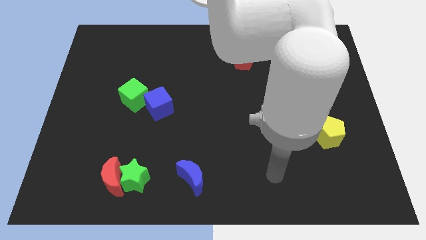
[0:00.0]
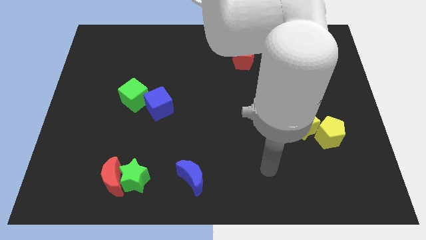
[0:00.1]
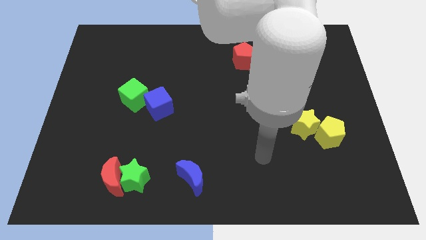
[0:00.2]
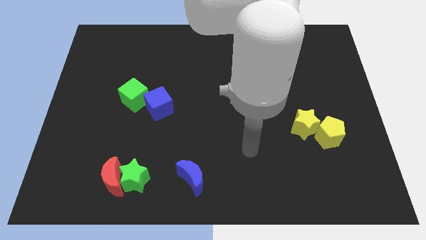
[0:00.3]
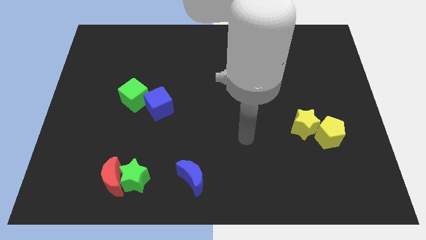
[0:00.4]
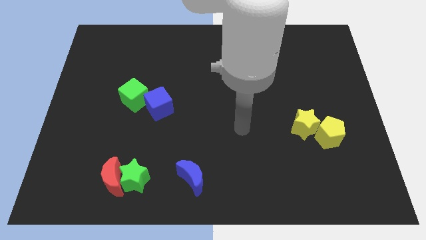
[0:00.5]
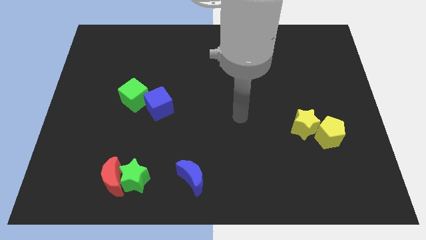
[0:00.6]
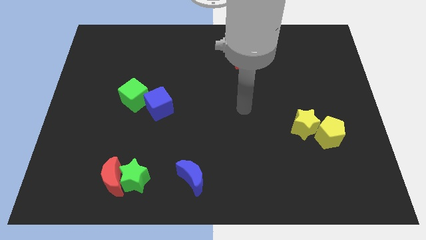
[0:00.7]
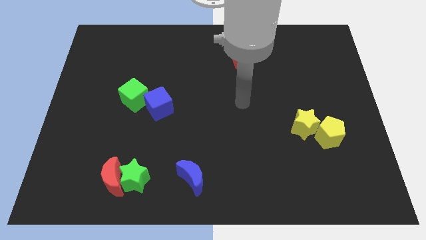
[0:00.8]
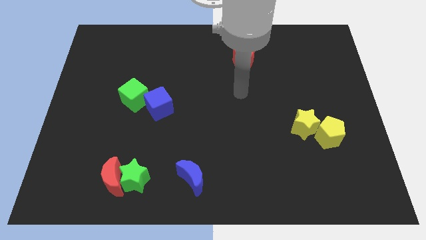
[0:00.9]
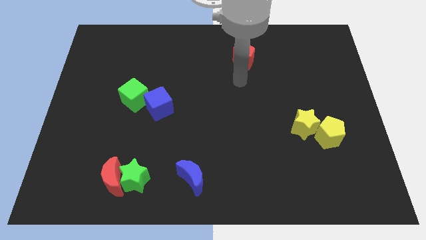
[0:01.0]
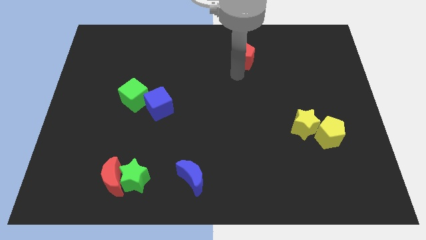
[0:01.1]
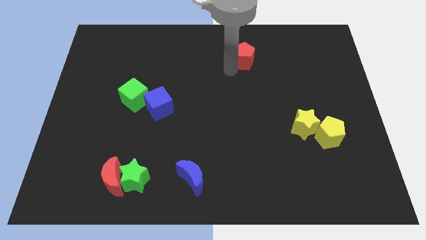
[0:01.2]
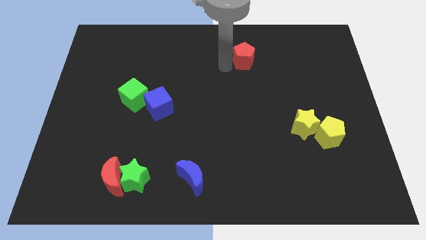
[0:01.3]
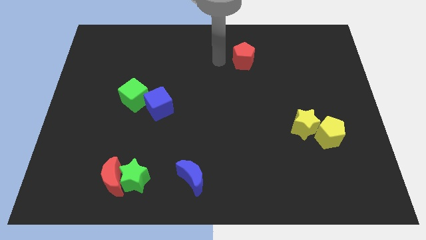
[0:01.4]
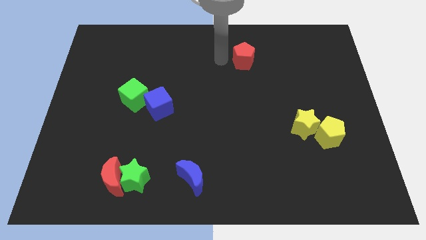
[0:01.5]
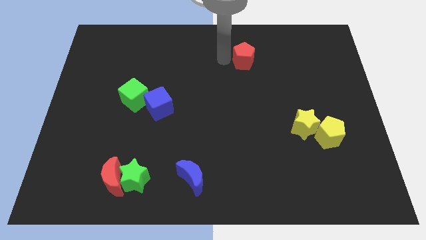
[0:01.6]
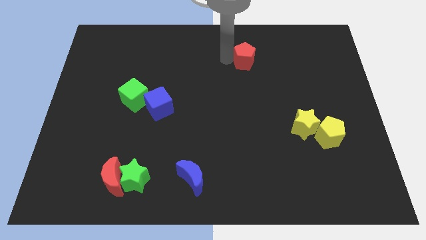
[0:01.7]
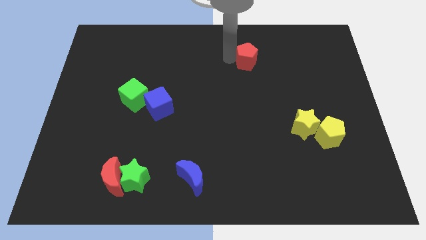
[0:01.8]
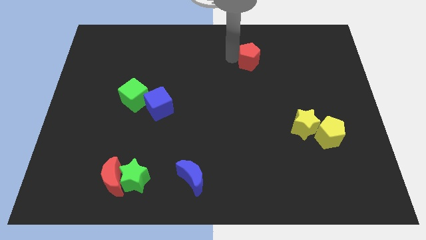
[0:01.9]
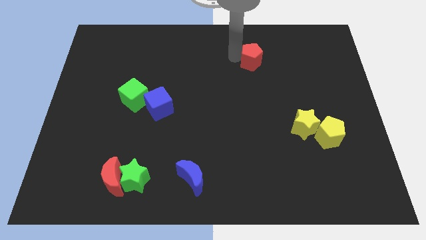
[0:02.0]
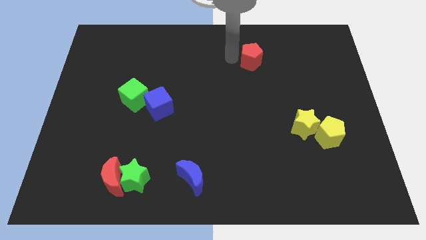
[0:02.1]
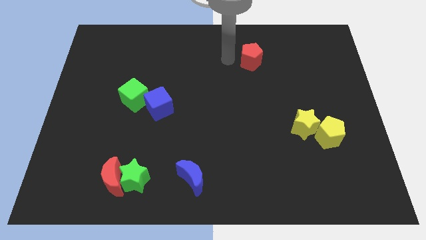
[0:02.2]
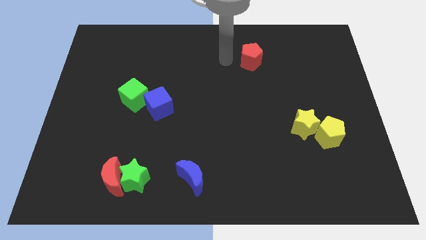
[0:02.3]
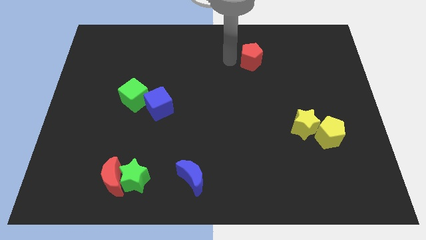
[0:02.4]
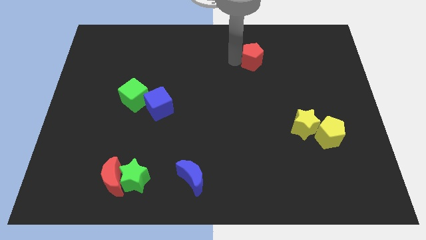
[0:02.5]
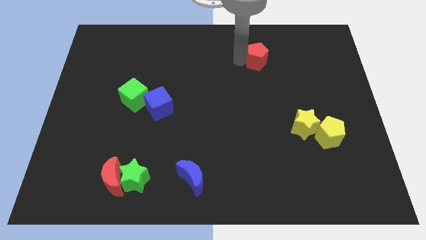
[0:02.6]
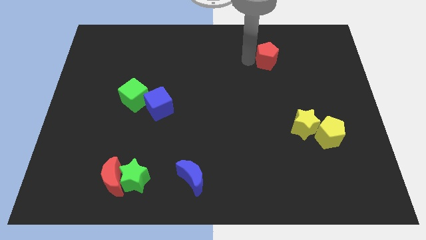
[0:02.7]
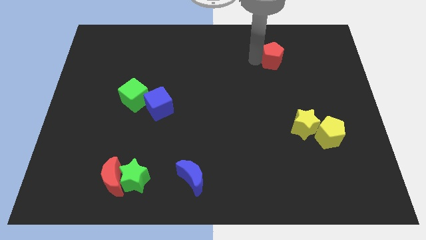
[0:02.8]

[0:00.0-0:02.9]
move the red pentagon slightly right

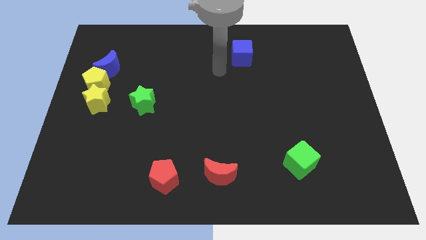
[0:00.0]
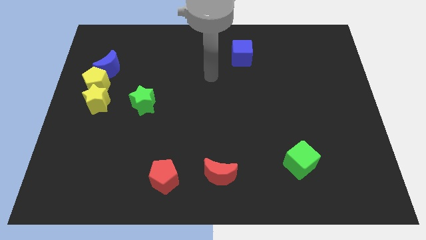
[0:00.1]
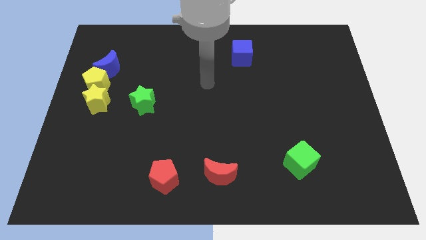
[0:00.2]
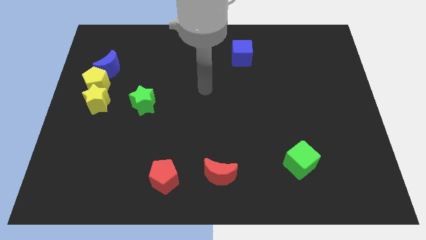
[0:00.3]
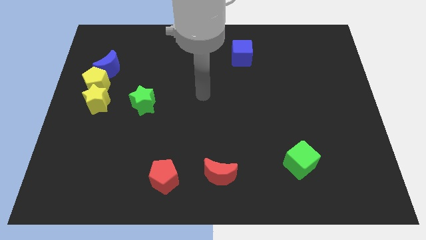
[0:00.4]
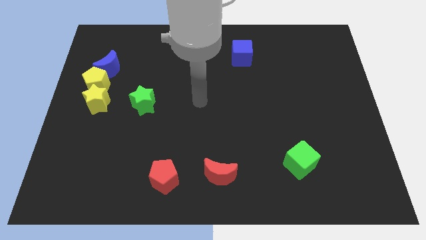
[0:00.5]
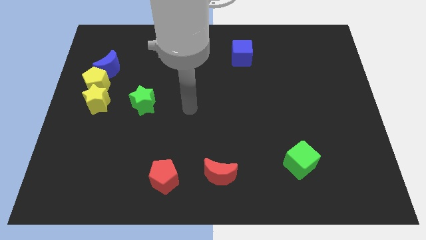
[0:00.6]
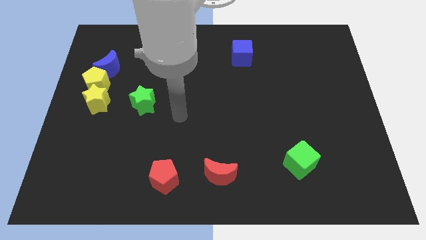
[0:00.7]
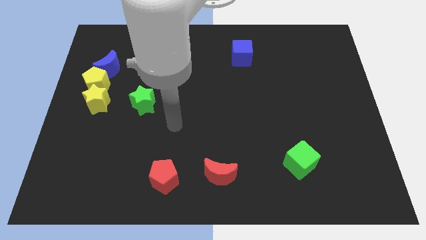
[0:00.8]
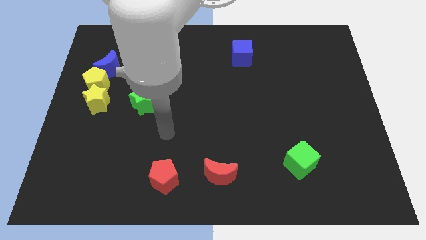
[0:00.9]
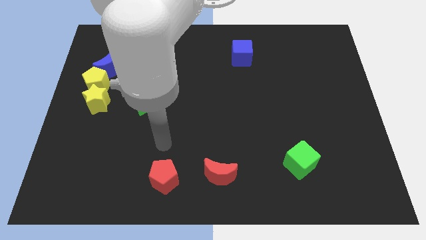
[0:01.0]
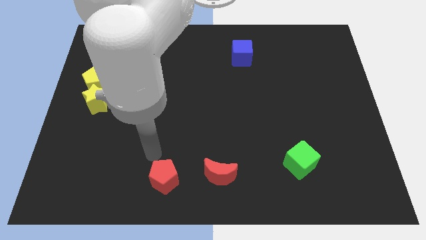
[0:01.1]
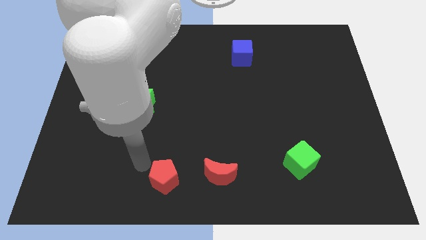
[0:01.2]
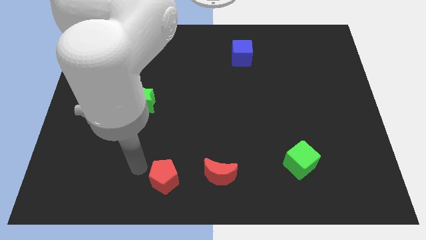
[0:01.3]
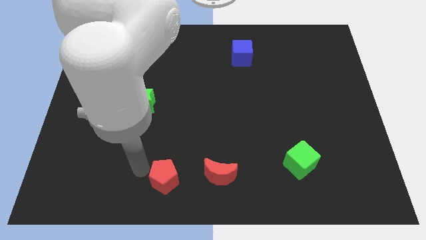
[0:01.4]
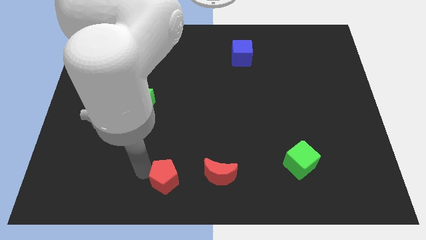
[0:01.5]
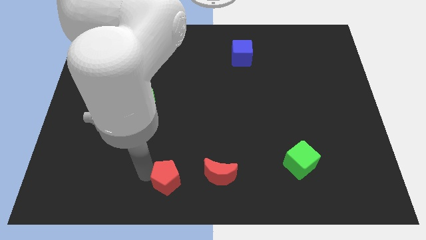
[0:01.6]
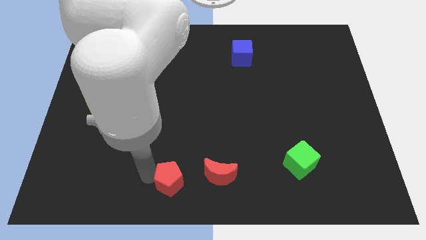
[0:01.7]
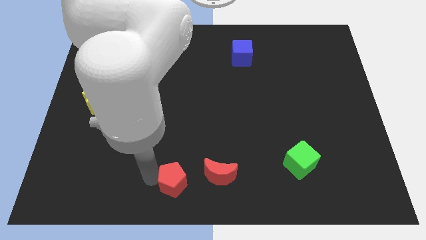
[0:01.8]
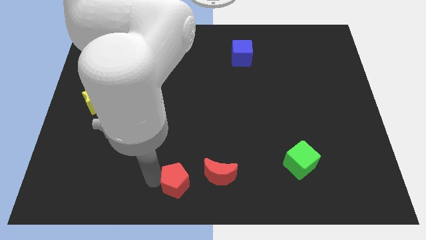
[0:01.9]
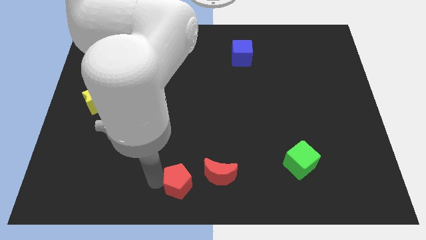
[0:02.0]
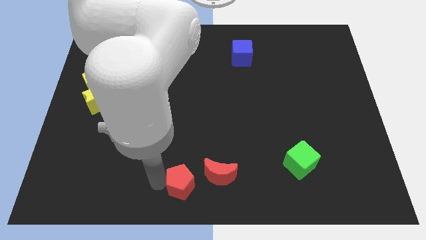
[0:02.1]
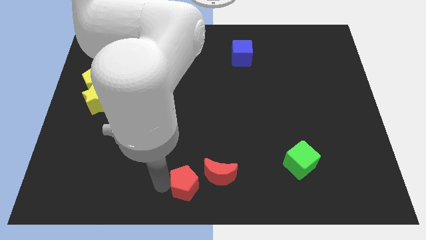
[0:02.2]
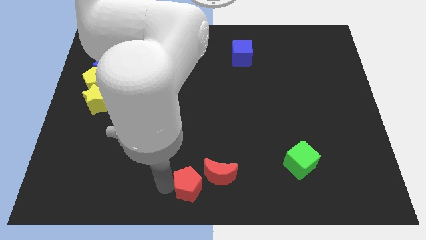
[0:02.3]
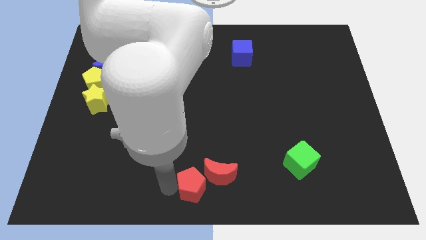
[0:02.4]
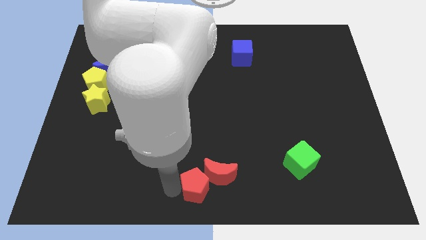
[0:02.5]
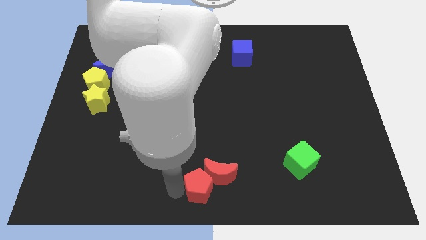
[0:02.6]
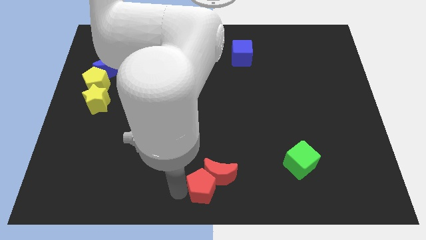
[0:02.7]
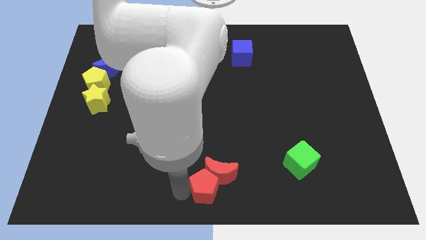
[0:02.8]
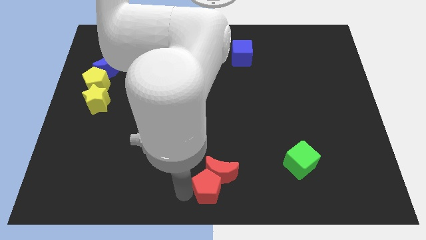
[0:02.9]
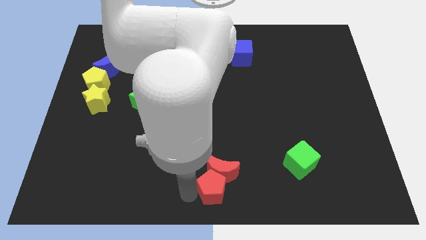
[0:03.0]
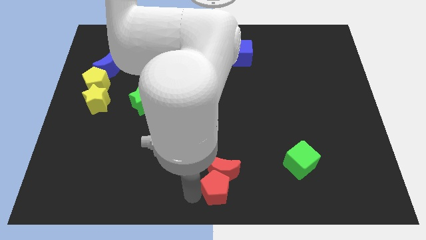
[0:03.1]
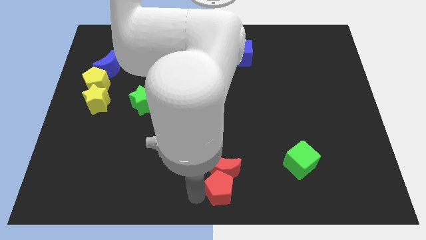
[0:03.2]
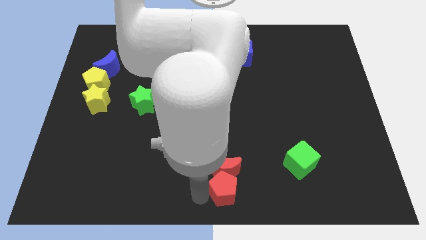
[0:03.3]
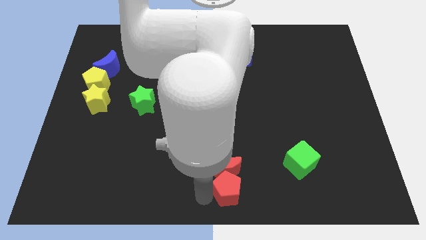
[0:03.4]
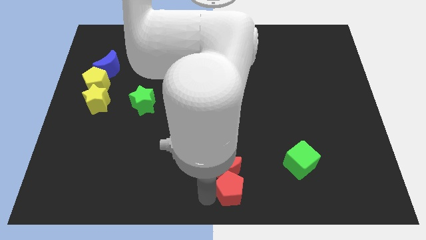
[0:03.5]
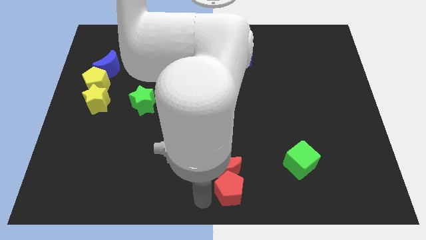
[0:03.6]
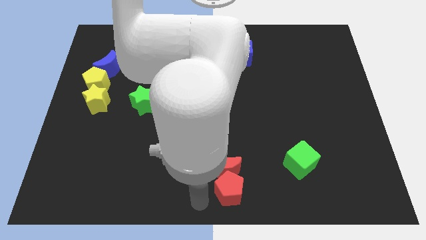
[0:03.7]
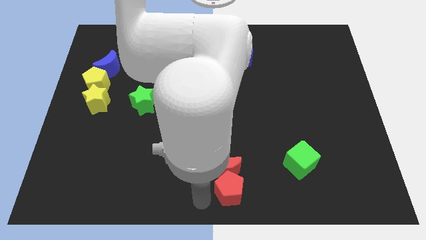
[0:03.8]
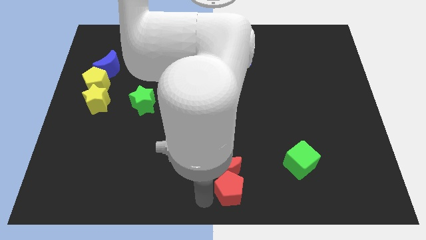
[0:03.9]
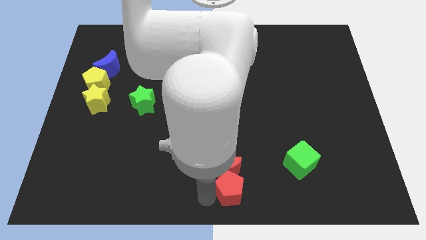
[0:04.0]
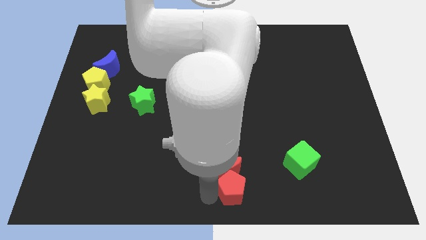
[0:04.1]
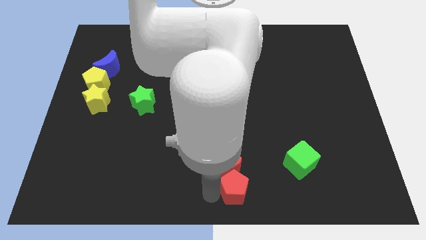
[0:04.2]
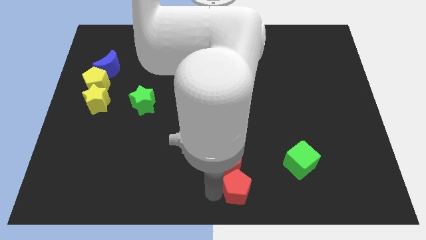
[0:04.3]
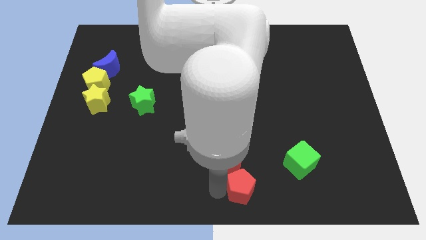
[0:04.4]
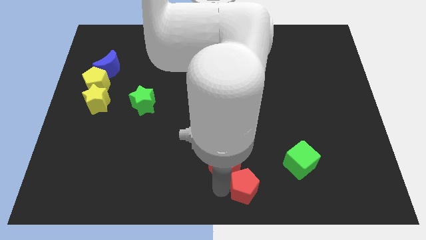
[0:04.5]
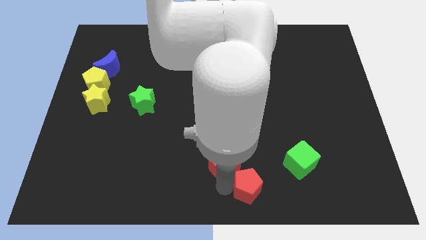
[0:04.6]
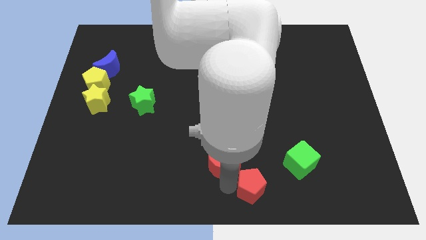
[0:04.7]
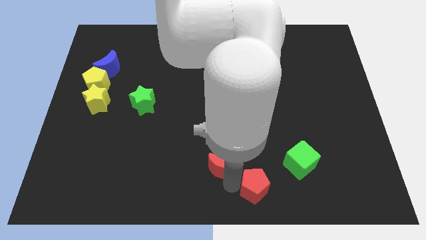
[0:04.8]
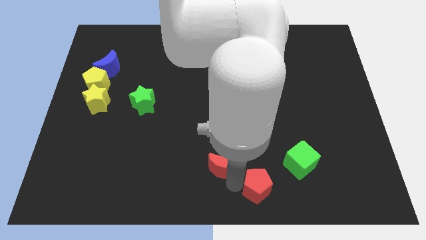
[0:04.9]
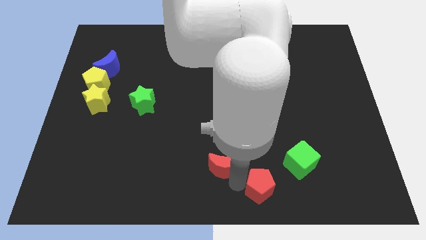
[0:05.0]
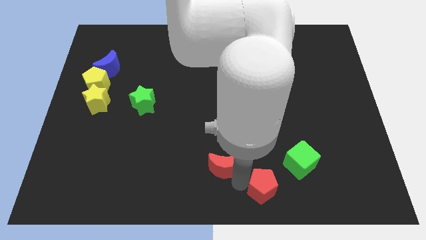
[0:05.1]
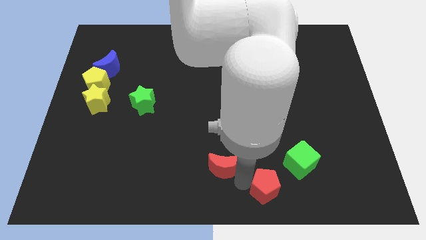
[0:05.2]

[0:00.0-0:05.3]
move the red pentagon right
